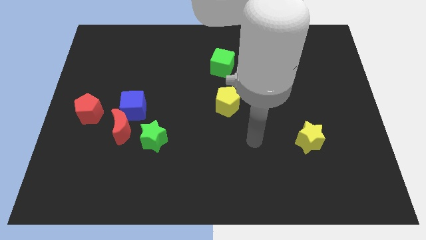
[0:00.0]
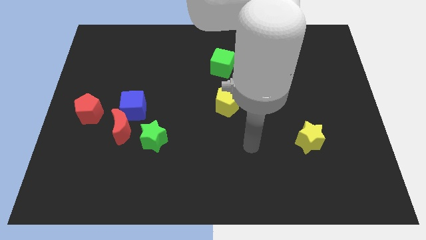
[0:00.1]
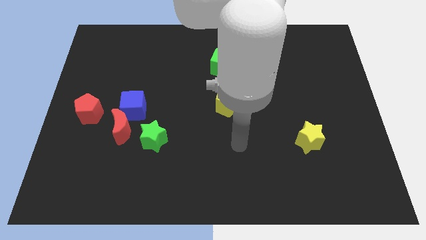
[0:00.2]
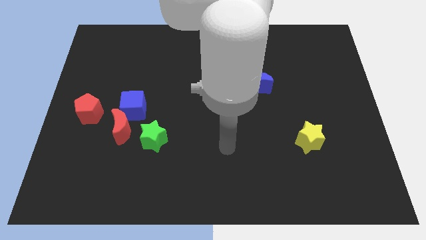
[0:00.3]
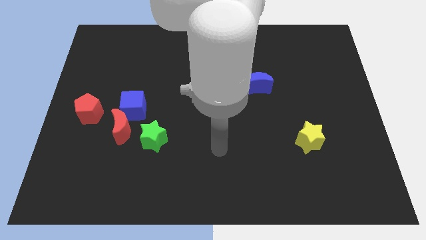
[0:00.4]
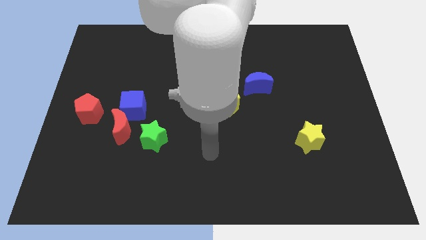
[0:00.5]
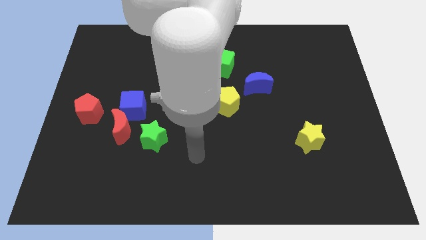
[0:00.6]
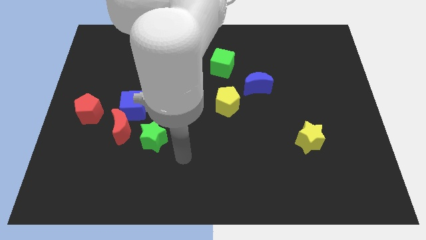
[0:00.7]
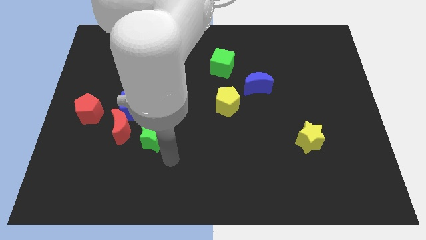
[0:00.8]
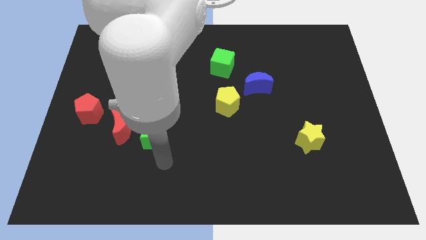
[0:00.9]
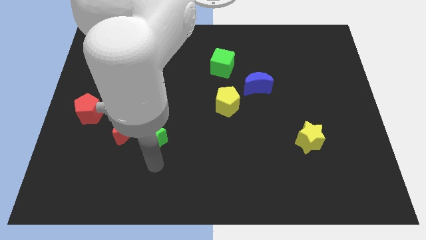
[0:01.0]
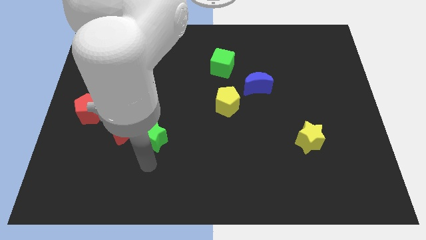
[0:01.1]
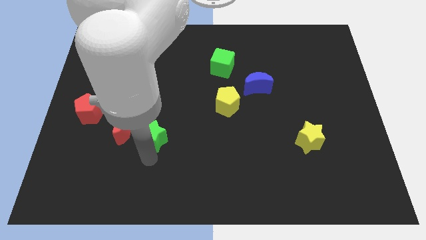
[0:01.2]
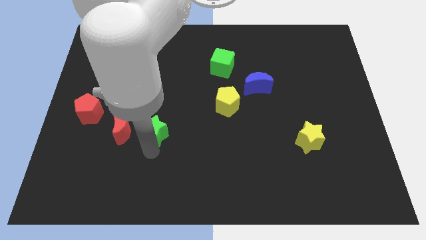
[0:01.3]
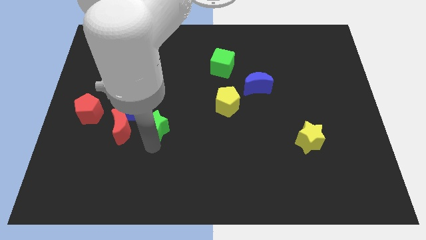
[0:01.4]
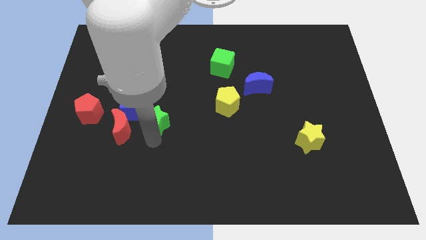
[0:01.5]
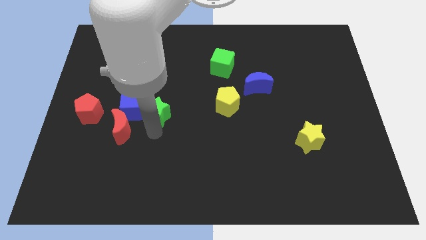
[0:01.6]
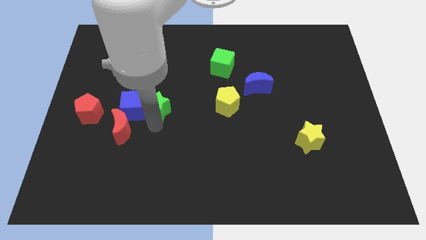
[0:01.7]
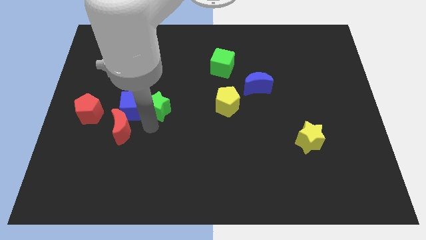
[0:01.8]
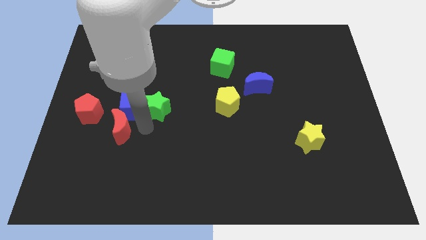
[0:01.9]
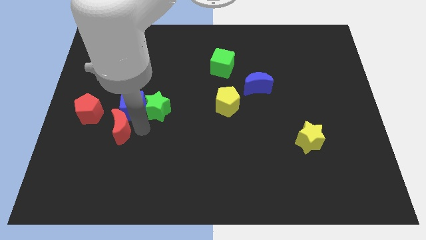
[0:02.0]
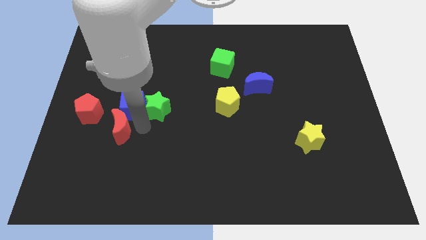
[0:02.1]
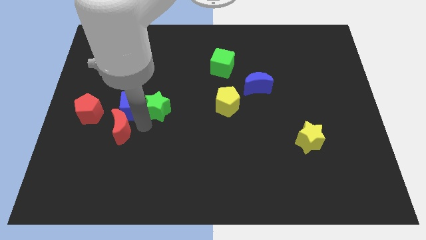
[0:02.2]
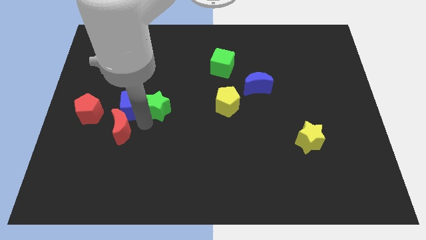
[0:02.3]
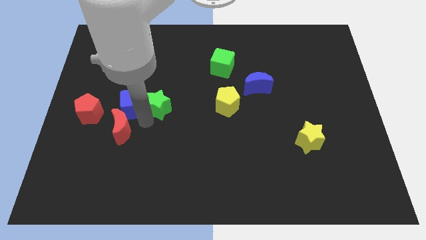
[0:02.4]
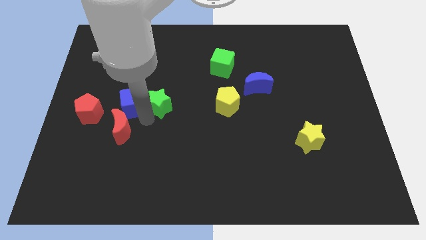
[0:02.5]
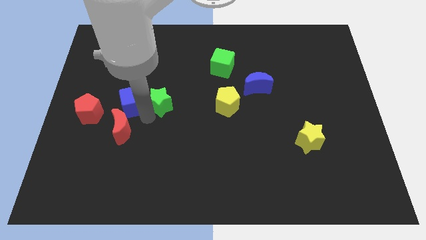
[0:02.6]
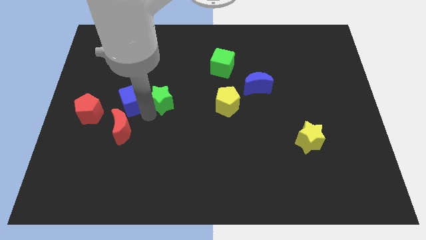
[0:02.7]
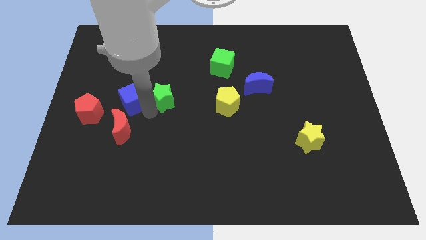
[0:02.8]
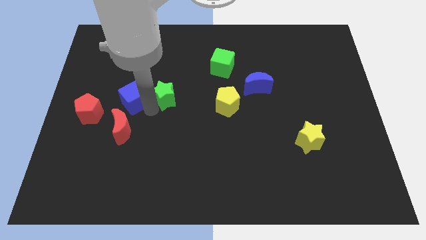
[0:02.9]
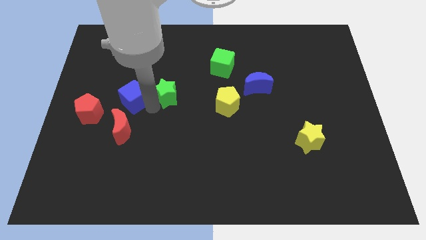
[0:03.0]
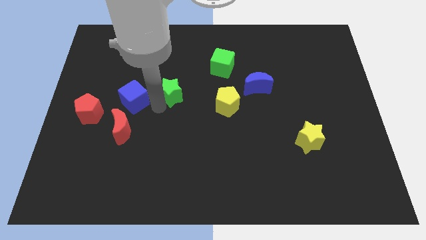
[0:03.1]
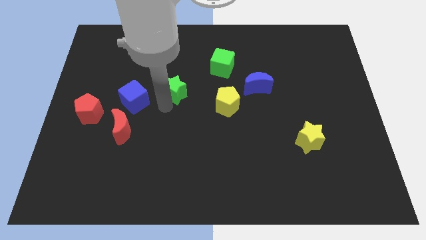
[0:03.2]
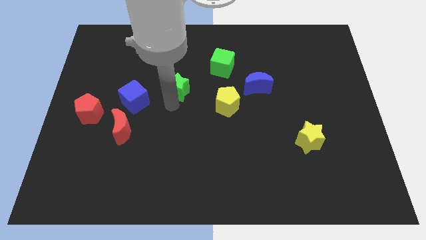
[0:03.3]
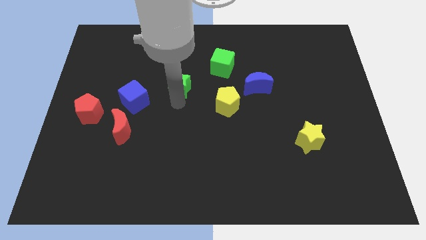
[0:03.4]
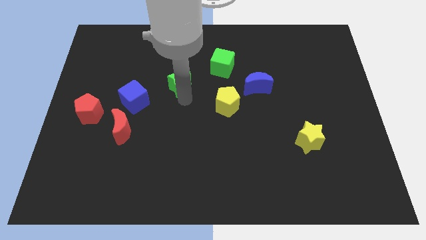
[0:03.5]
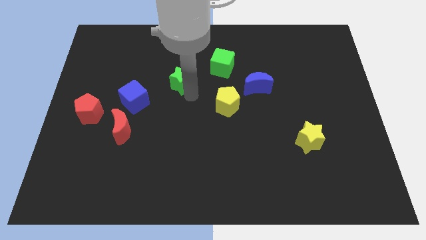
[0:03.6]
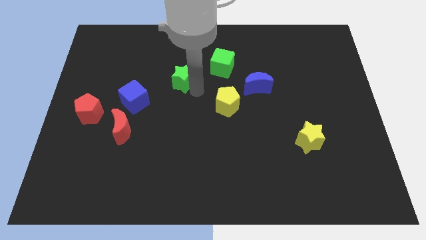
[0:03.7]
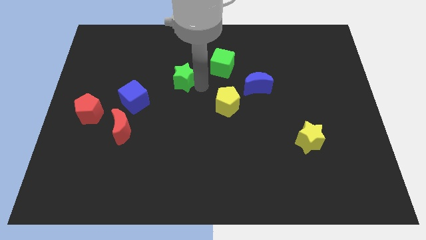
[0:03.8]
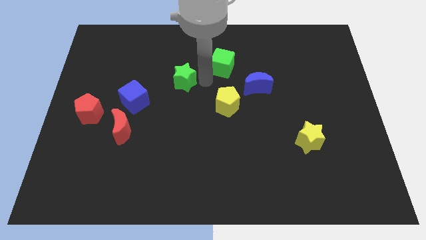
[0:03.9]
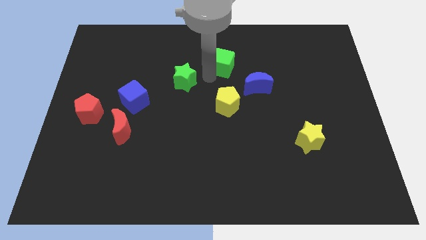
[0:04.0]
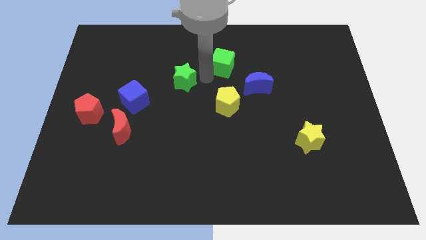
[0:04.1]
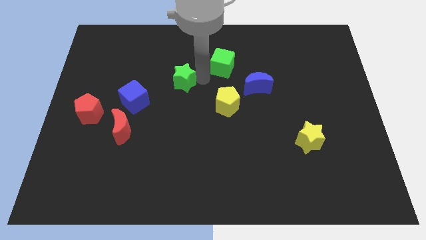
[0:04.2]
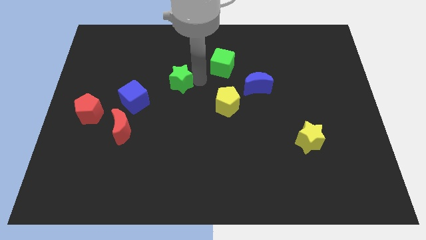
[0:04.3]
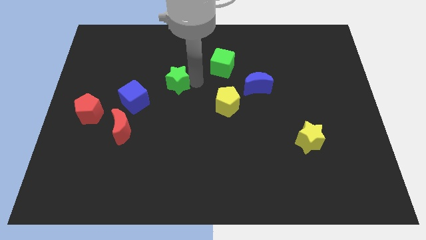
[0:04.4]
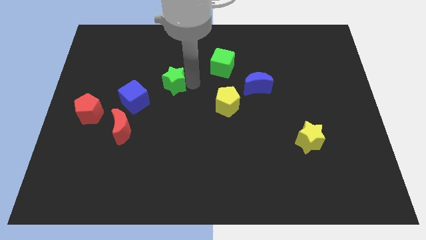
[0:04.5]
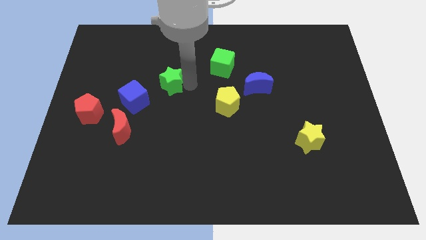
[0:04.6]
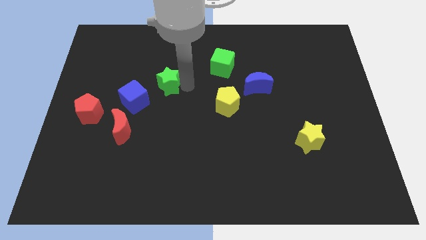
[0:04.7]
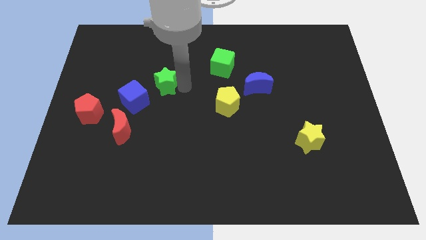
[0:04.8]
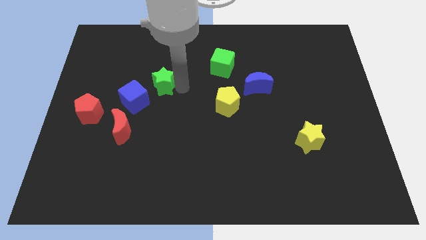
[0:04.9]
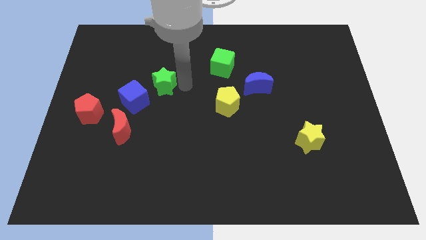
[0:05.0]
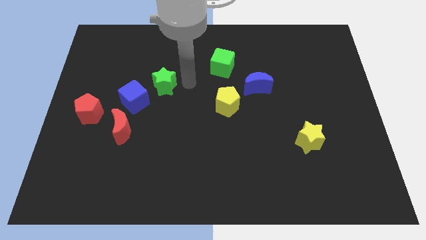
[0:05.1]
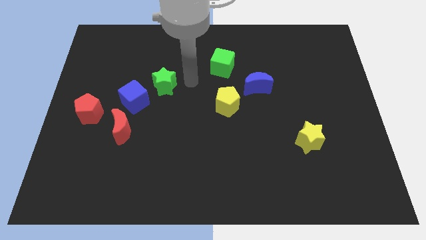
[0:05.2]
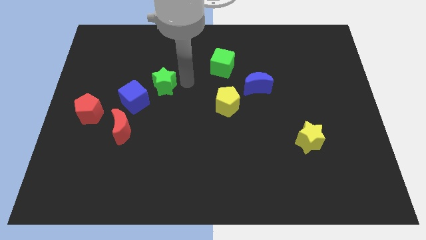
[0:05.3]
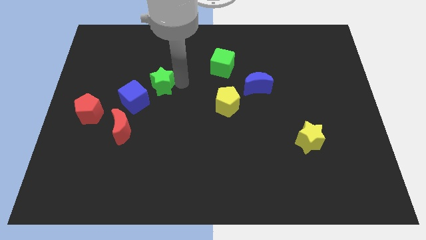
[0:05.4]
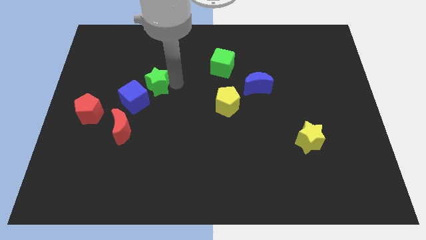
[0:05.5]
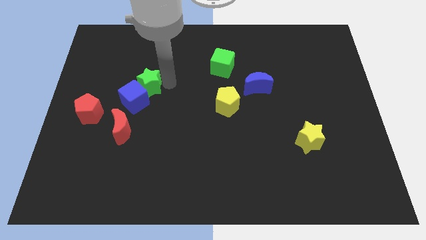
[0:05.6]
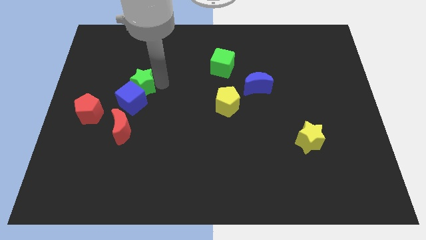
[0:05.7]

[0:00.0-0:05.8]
push the green star to the top side of the red moon

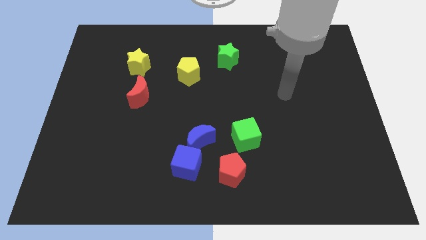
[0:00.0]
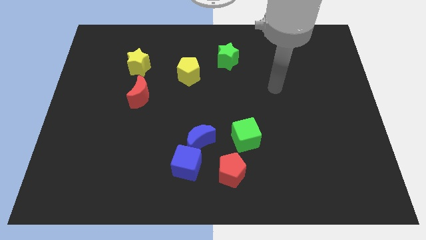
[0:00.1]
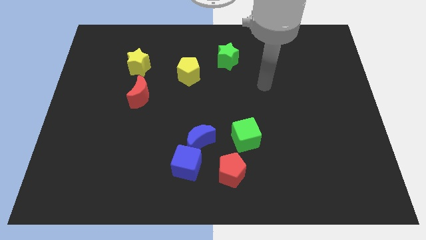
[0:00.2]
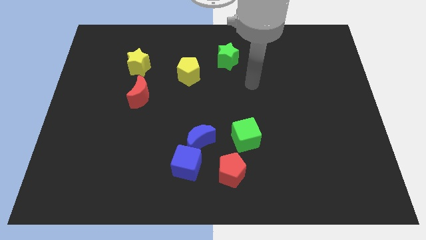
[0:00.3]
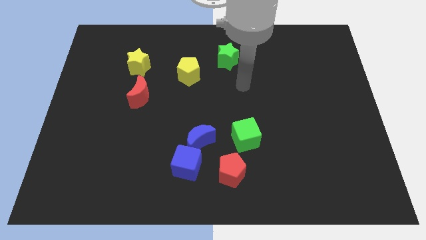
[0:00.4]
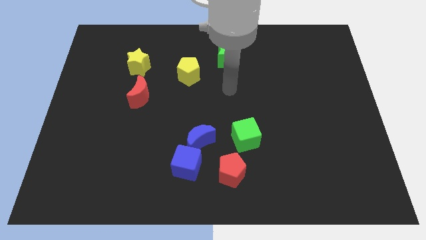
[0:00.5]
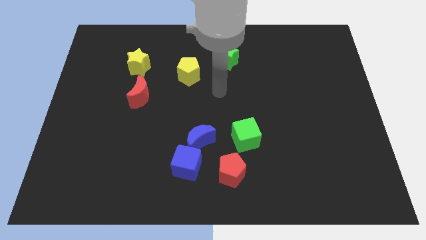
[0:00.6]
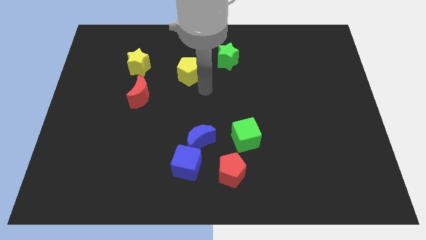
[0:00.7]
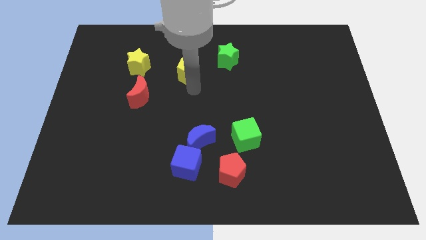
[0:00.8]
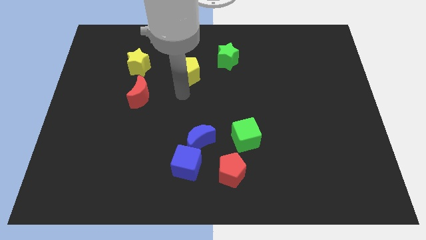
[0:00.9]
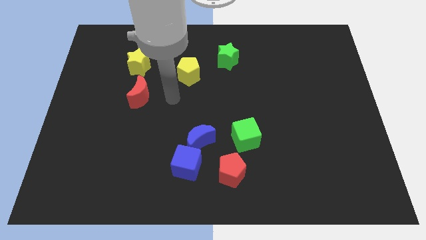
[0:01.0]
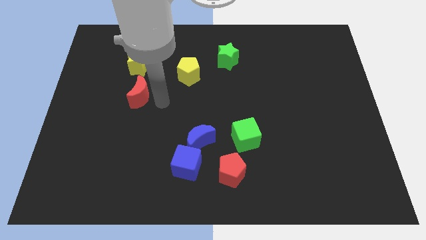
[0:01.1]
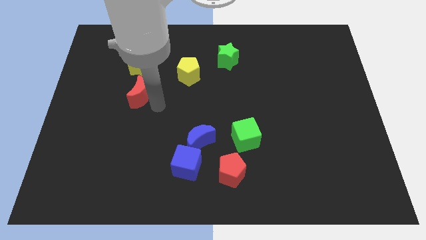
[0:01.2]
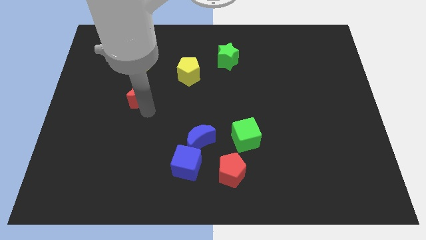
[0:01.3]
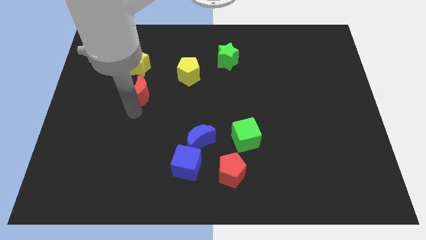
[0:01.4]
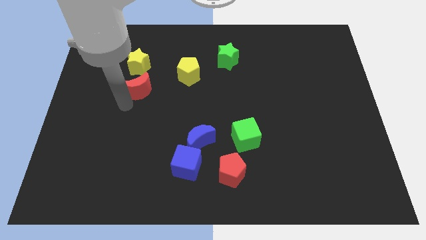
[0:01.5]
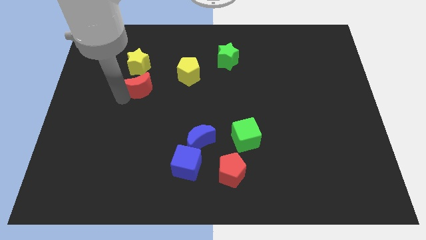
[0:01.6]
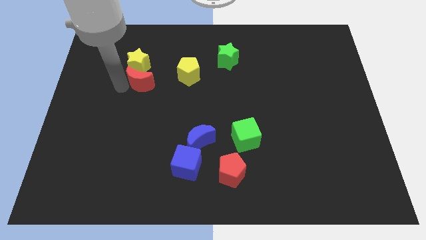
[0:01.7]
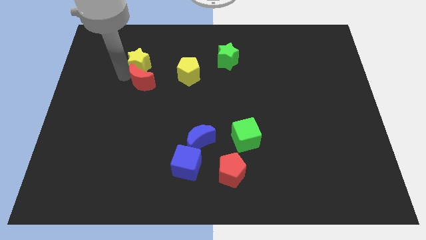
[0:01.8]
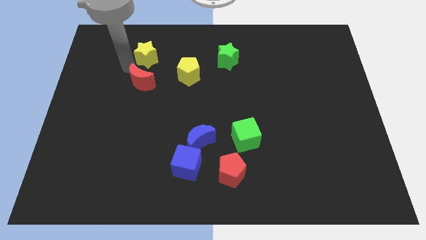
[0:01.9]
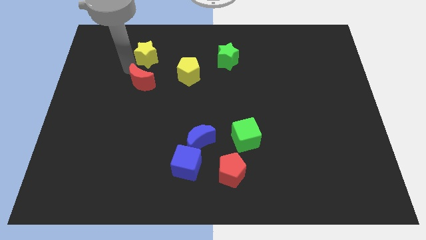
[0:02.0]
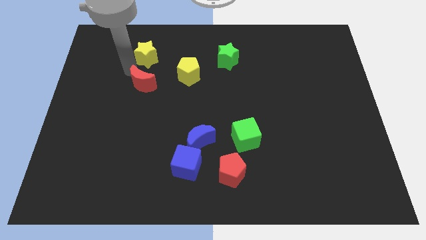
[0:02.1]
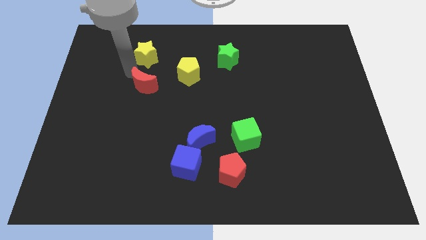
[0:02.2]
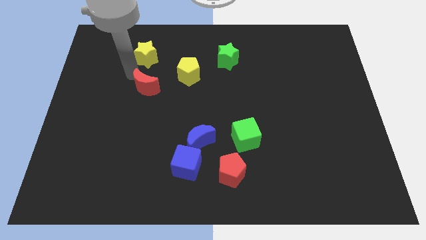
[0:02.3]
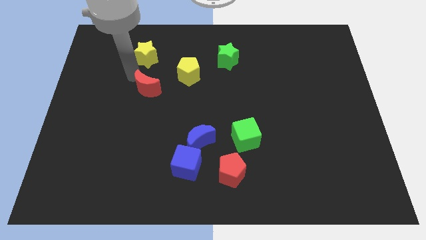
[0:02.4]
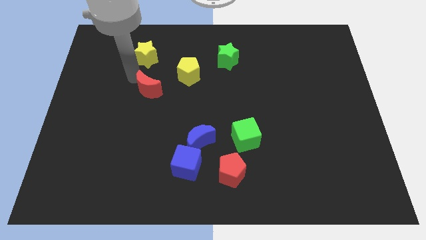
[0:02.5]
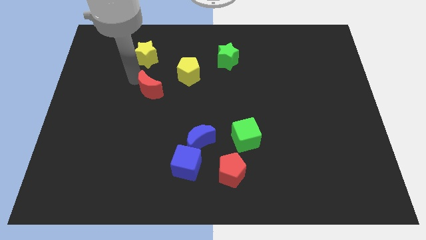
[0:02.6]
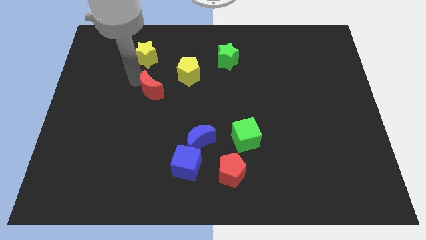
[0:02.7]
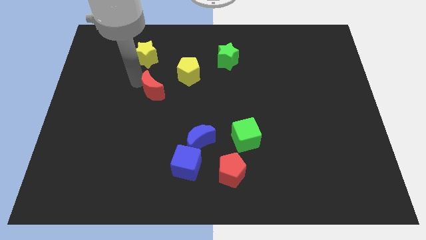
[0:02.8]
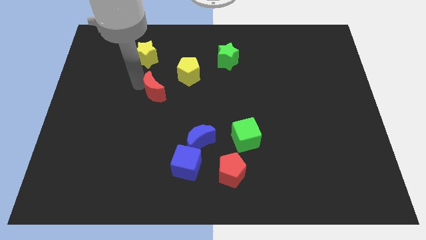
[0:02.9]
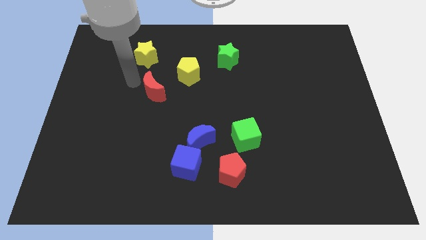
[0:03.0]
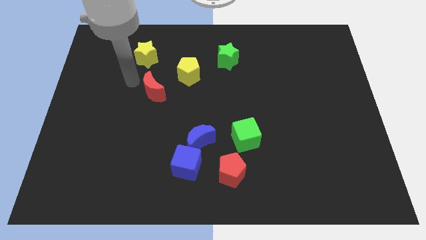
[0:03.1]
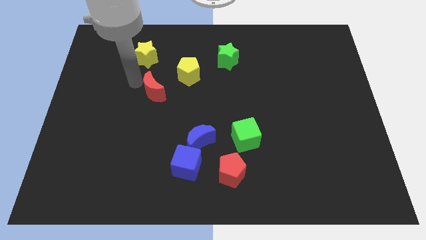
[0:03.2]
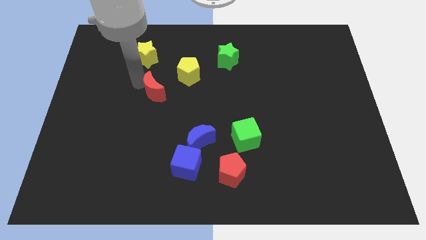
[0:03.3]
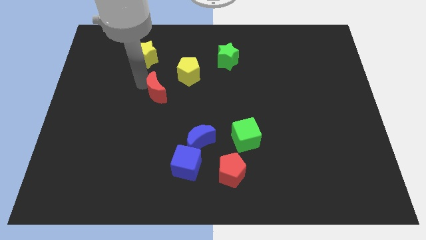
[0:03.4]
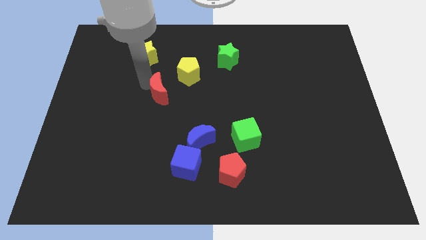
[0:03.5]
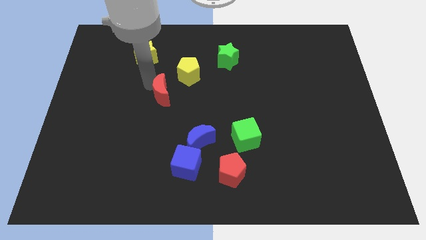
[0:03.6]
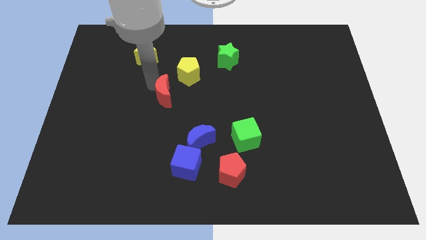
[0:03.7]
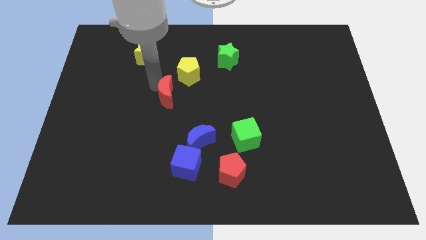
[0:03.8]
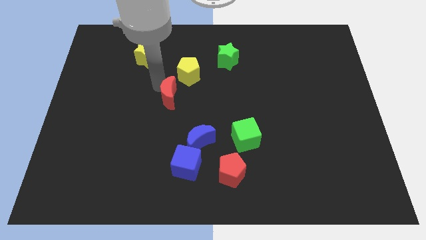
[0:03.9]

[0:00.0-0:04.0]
move the red moon to the bottom side of the yellow pentagon
